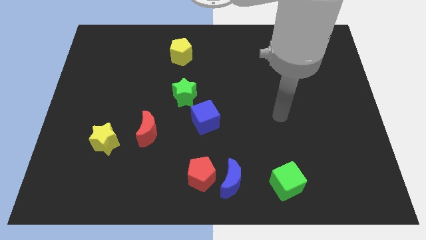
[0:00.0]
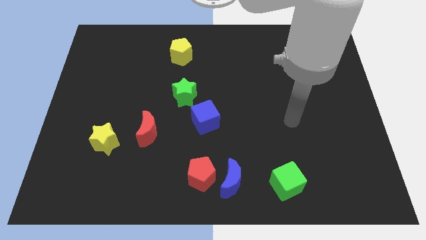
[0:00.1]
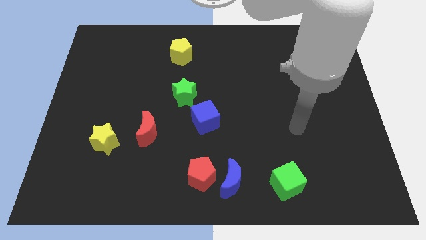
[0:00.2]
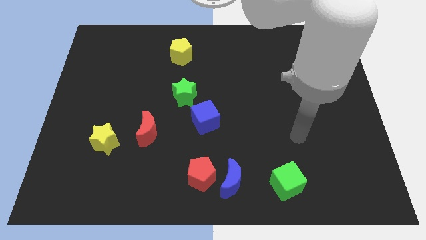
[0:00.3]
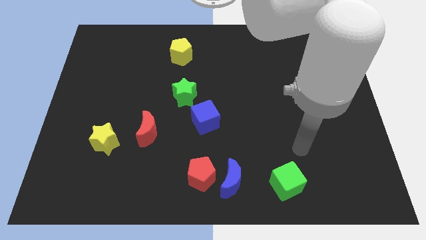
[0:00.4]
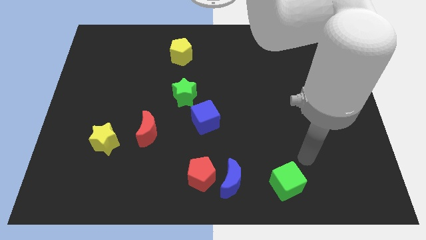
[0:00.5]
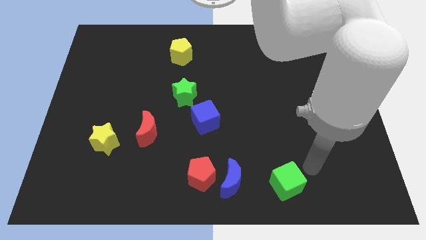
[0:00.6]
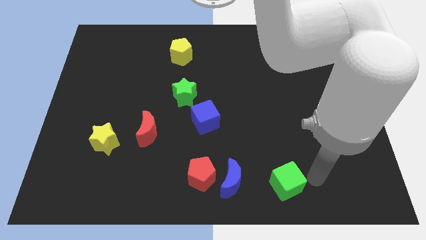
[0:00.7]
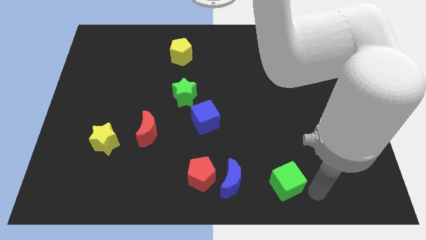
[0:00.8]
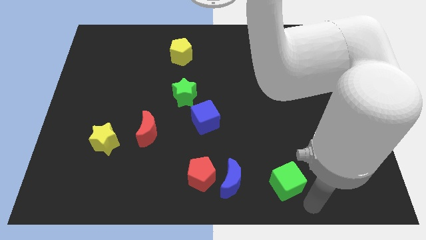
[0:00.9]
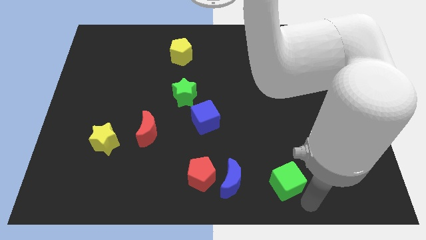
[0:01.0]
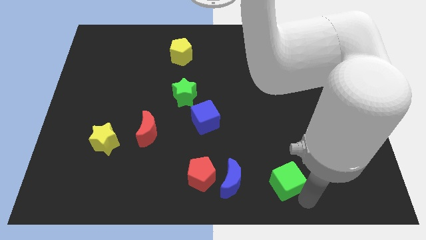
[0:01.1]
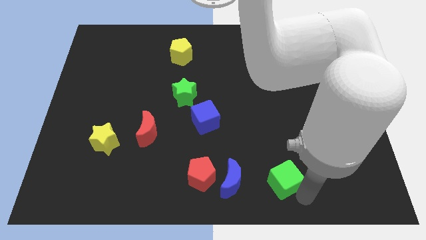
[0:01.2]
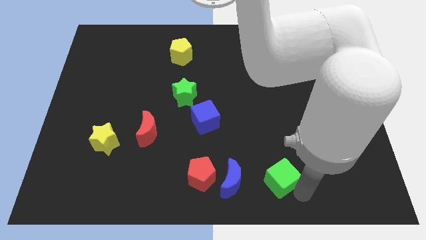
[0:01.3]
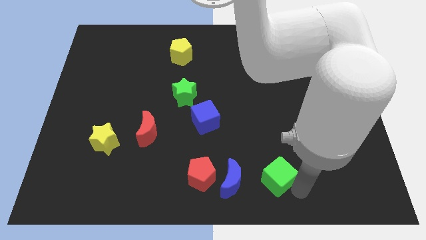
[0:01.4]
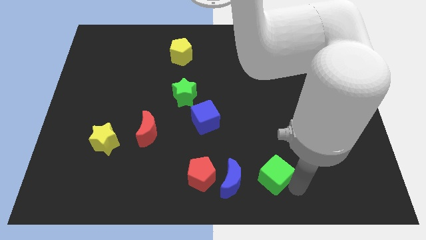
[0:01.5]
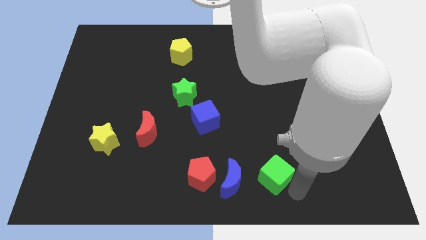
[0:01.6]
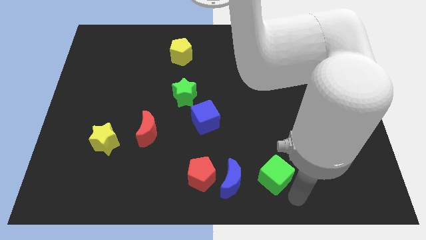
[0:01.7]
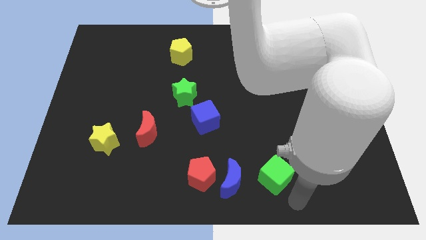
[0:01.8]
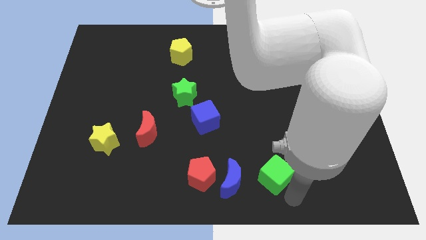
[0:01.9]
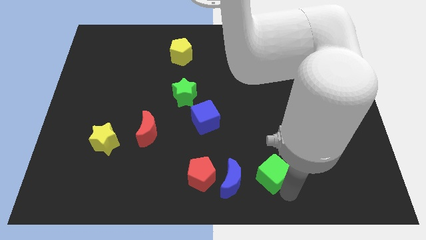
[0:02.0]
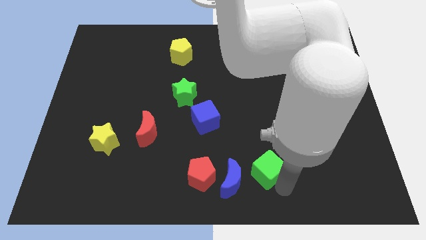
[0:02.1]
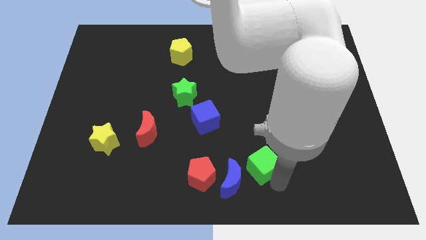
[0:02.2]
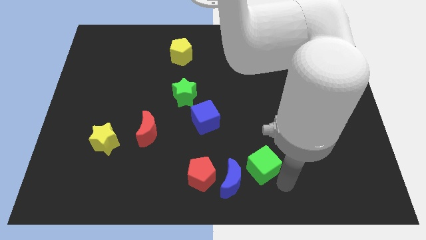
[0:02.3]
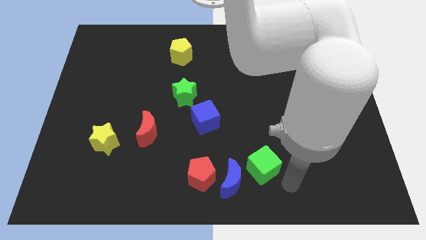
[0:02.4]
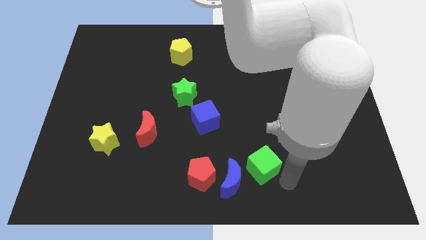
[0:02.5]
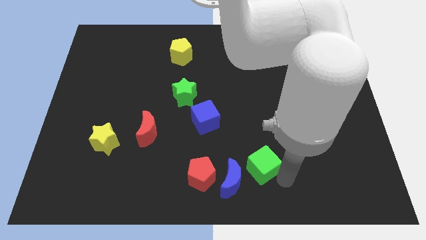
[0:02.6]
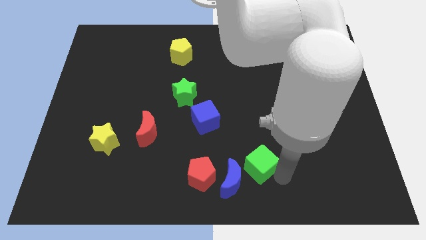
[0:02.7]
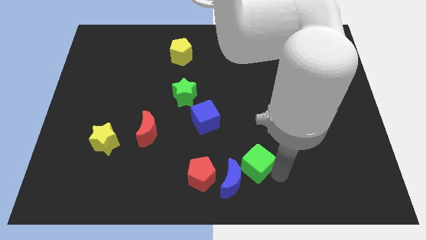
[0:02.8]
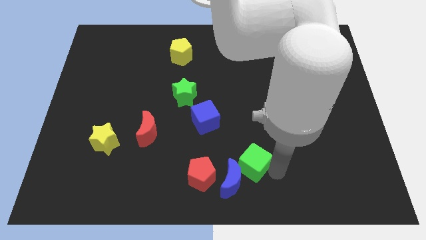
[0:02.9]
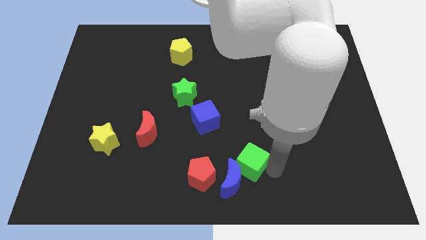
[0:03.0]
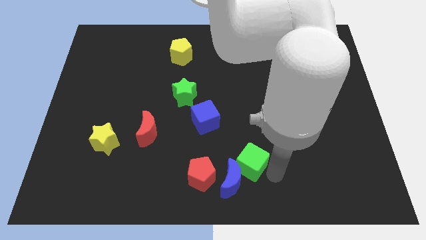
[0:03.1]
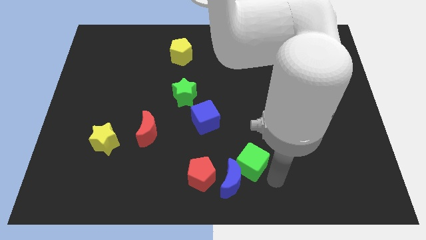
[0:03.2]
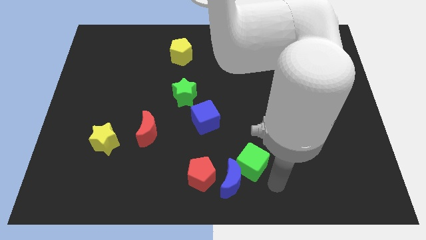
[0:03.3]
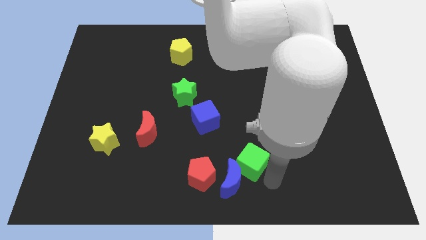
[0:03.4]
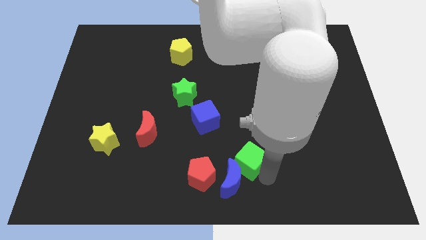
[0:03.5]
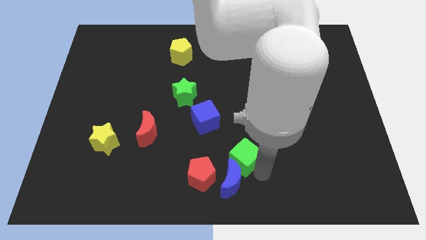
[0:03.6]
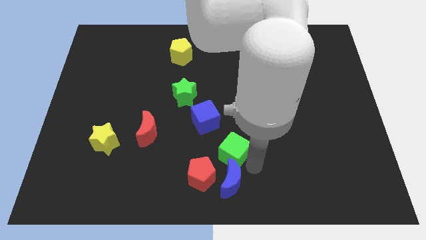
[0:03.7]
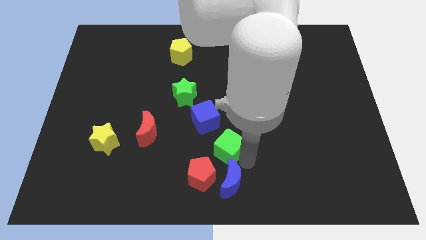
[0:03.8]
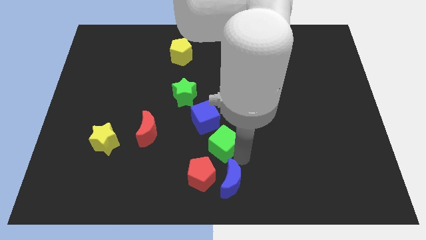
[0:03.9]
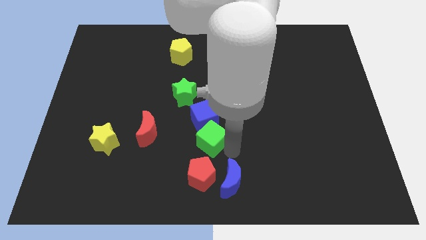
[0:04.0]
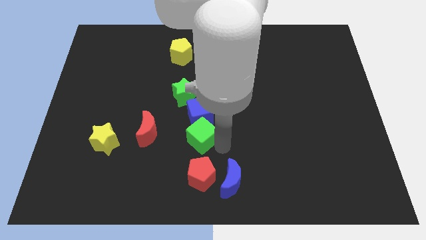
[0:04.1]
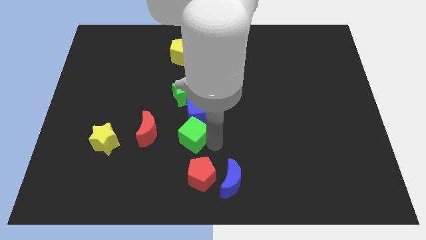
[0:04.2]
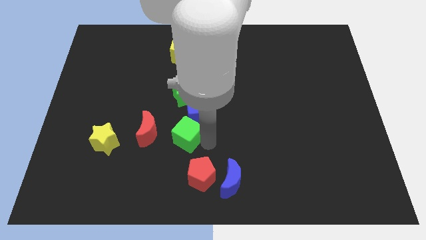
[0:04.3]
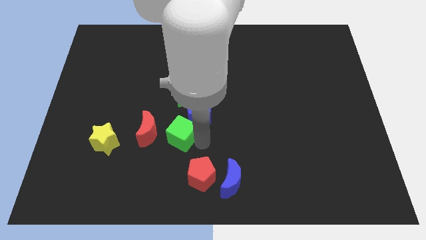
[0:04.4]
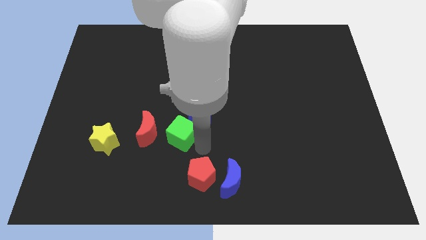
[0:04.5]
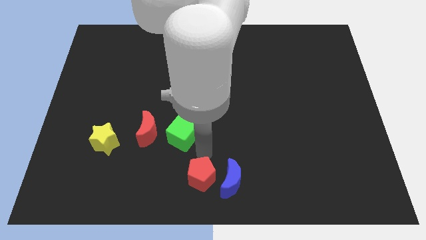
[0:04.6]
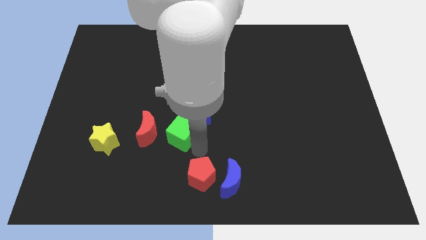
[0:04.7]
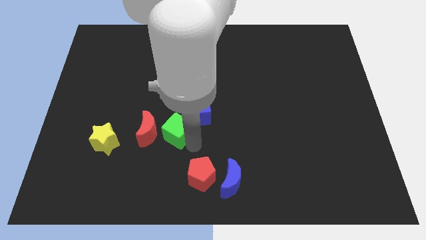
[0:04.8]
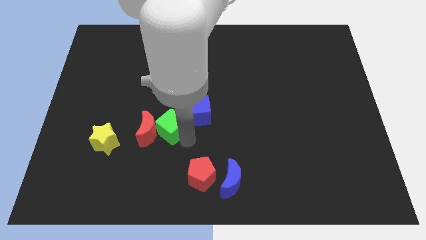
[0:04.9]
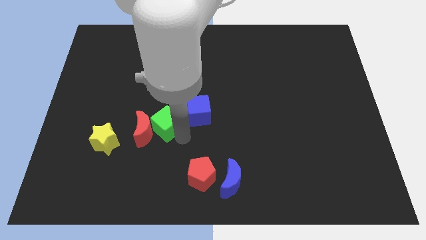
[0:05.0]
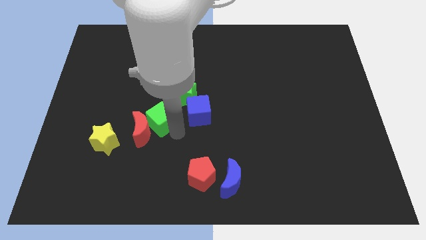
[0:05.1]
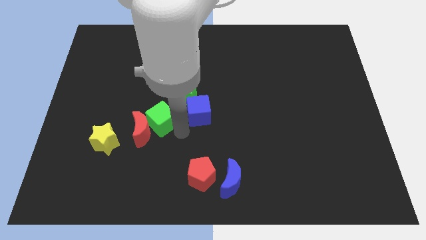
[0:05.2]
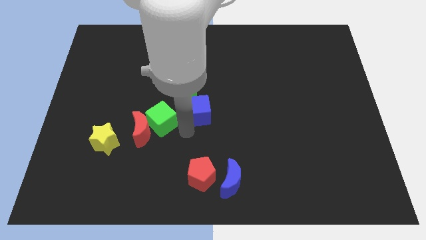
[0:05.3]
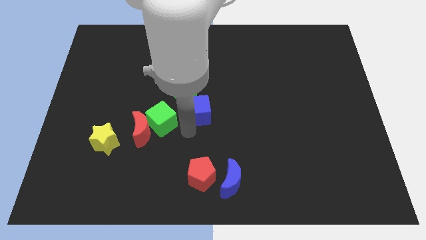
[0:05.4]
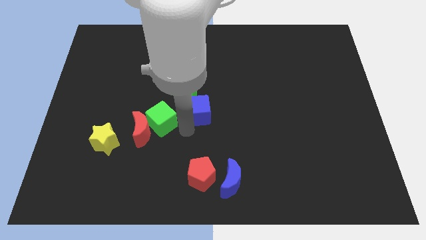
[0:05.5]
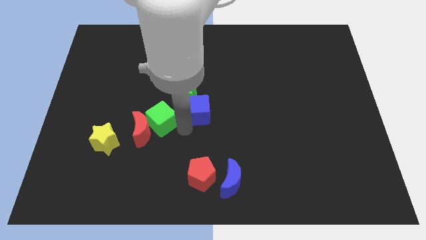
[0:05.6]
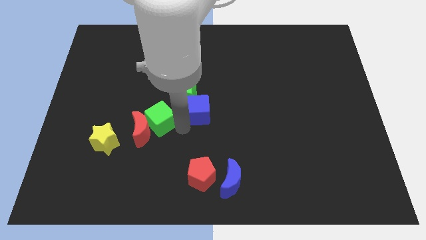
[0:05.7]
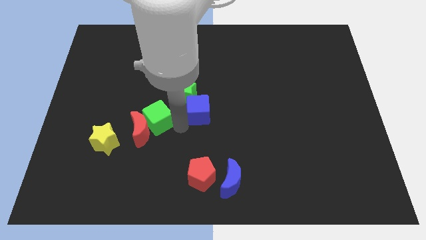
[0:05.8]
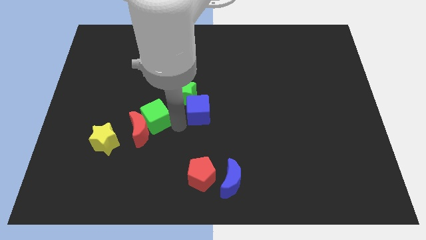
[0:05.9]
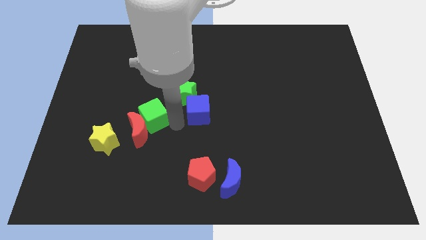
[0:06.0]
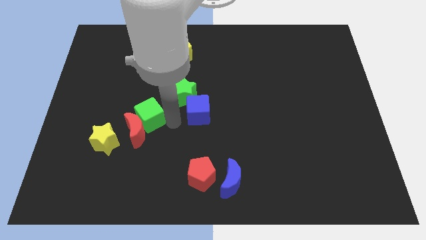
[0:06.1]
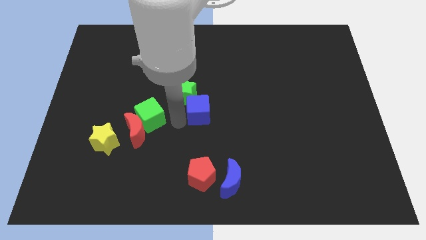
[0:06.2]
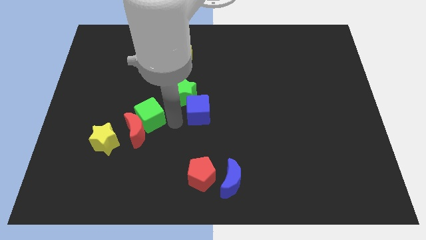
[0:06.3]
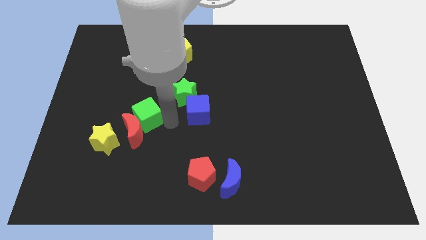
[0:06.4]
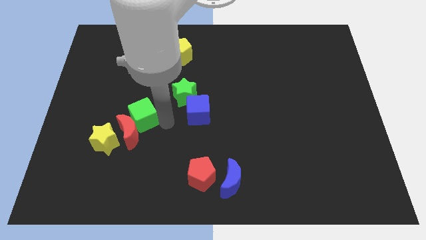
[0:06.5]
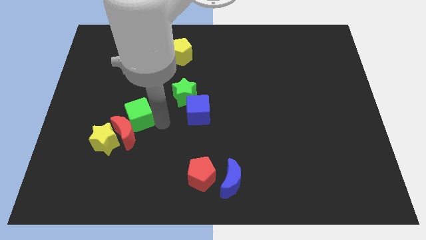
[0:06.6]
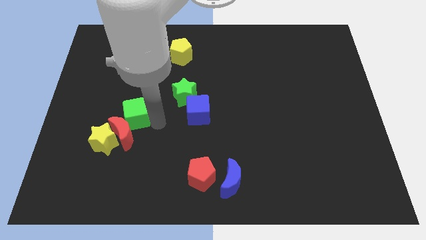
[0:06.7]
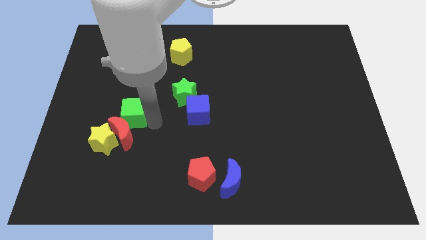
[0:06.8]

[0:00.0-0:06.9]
put the green cube to the top left of the red moon
